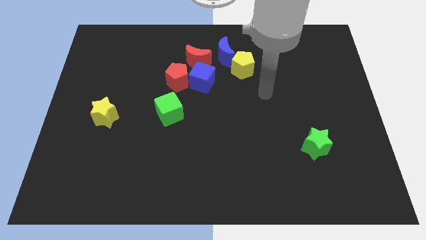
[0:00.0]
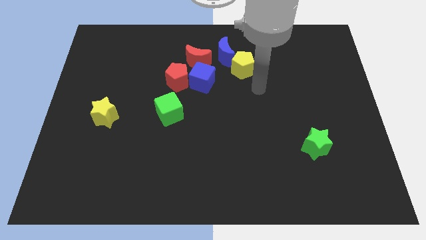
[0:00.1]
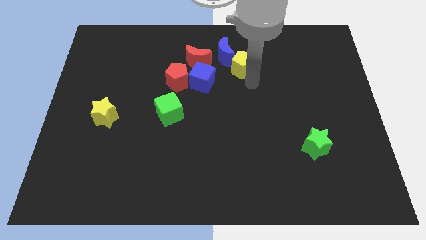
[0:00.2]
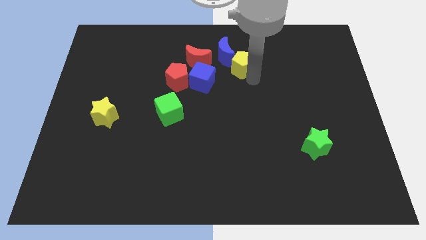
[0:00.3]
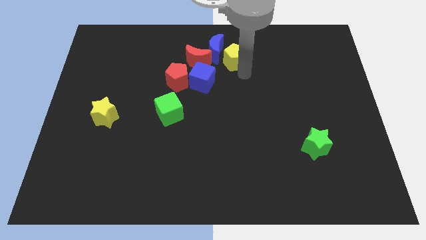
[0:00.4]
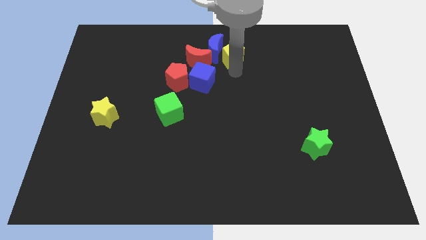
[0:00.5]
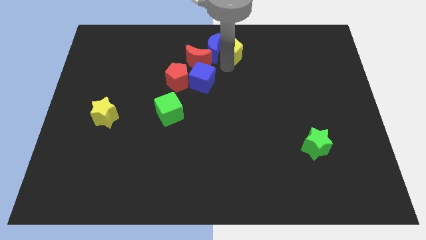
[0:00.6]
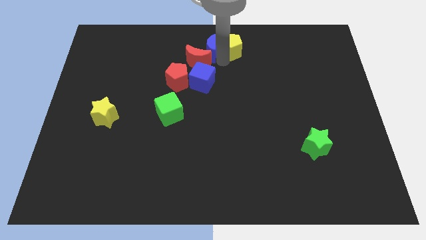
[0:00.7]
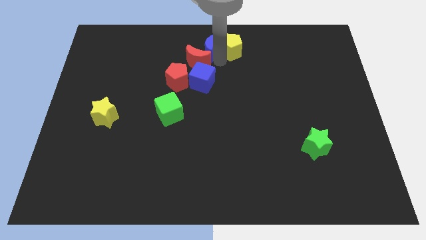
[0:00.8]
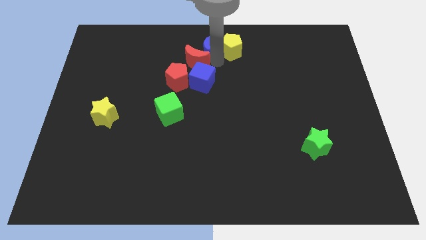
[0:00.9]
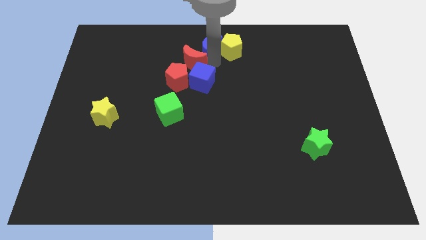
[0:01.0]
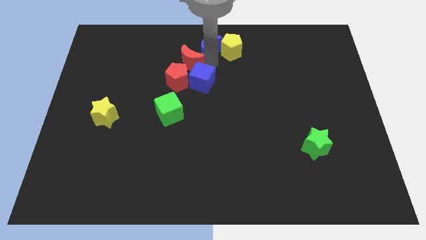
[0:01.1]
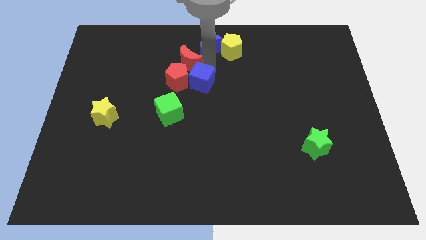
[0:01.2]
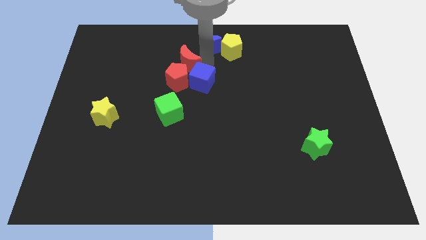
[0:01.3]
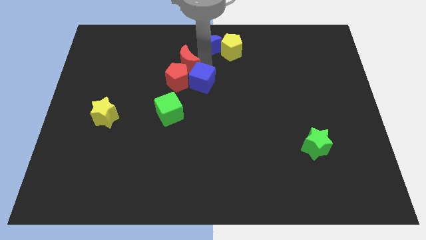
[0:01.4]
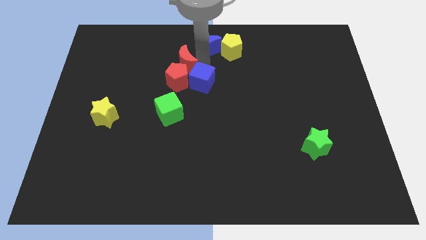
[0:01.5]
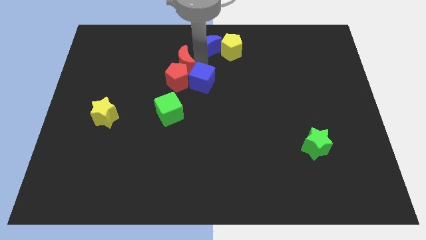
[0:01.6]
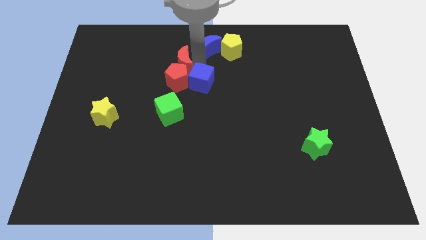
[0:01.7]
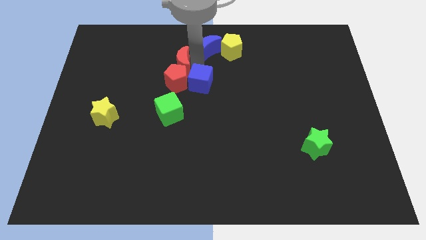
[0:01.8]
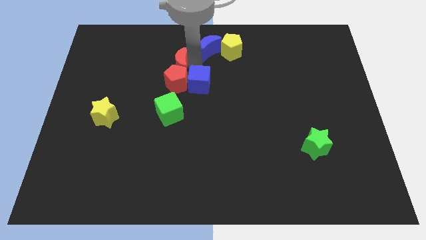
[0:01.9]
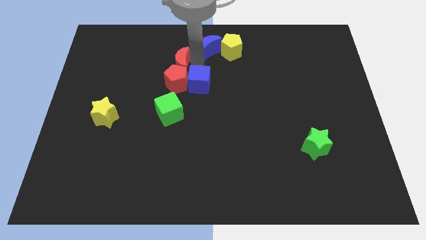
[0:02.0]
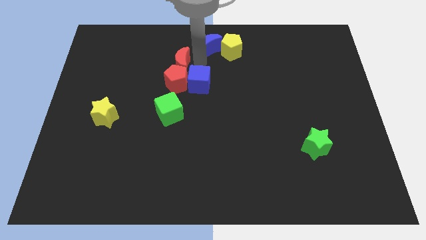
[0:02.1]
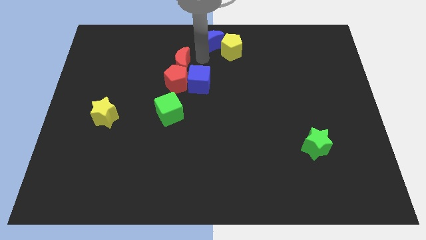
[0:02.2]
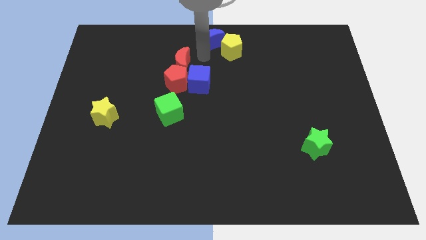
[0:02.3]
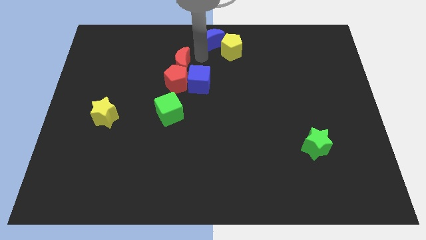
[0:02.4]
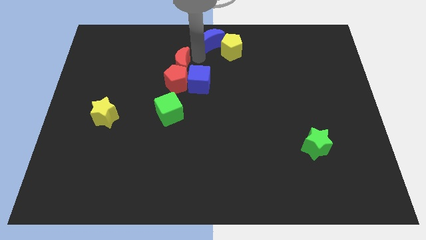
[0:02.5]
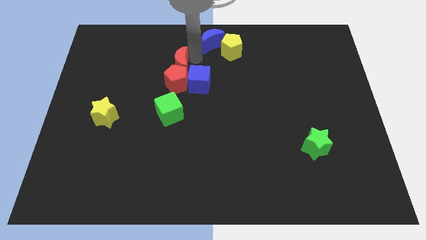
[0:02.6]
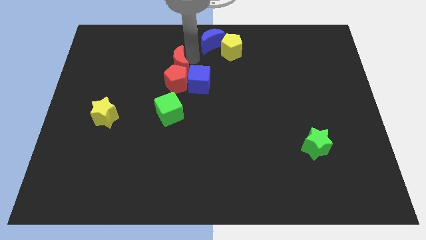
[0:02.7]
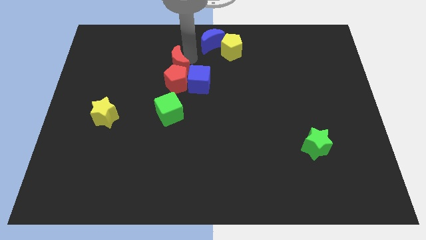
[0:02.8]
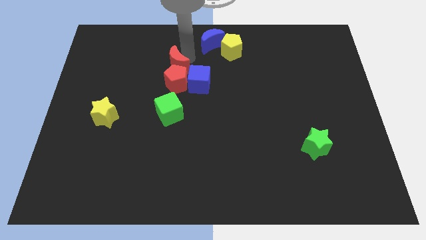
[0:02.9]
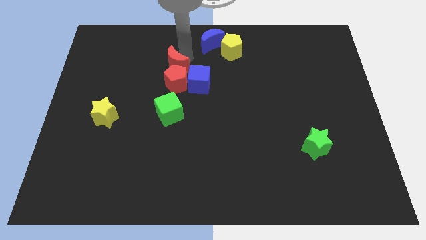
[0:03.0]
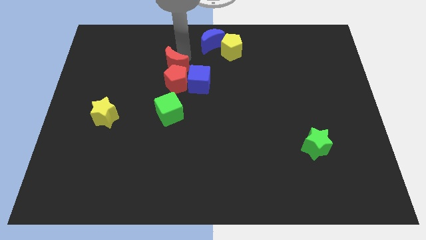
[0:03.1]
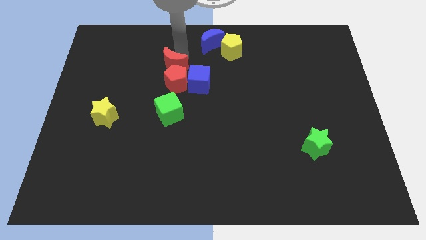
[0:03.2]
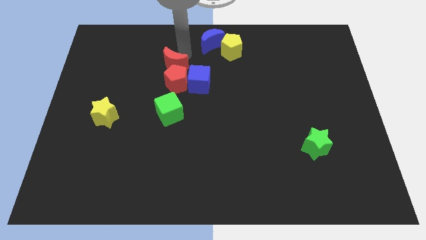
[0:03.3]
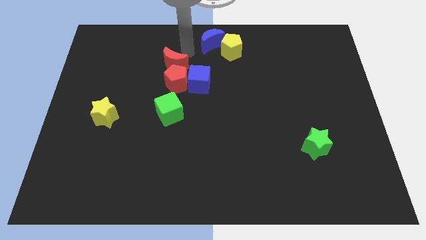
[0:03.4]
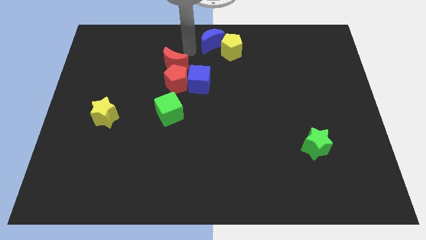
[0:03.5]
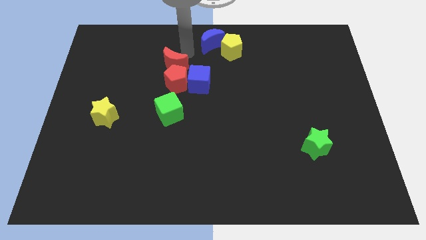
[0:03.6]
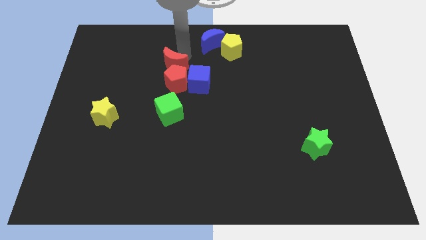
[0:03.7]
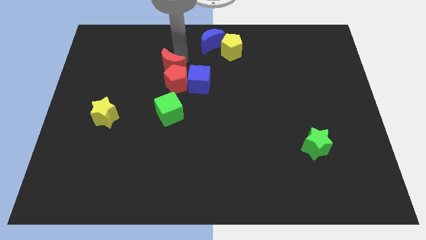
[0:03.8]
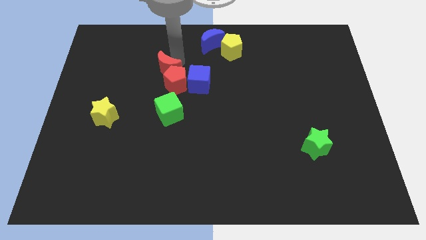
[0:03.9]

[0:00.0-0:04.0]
slide the red moon downwards and to the left somewhat

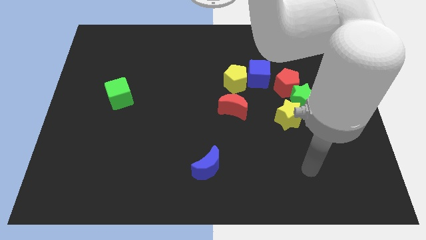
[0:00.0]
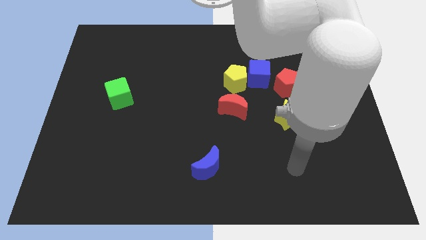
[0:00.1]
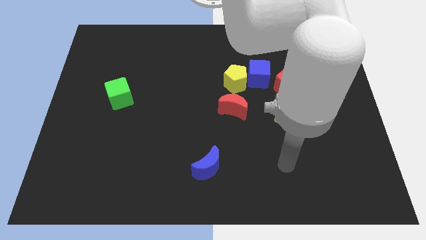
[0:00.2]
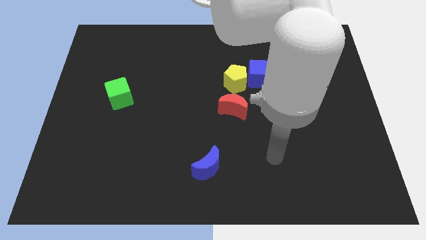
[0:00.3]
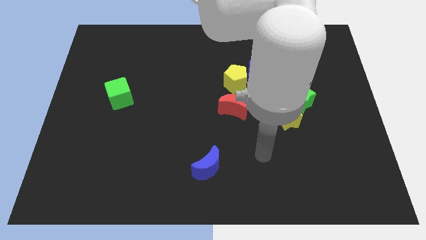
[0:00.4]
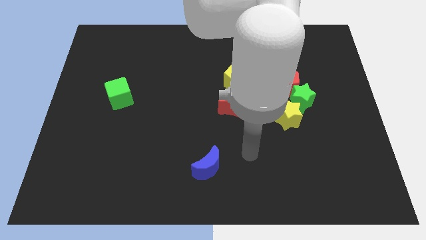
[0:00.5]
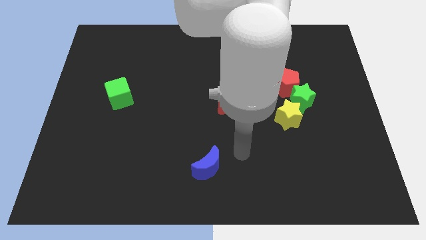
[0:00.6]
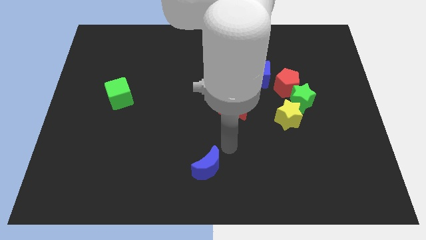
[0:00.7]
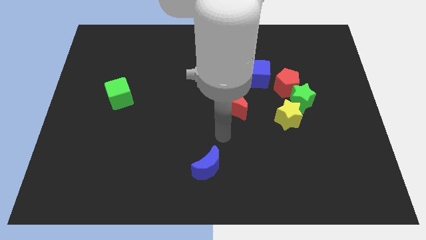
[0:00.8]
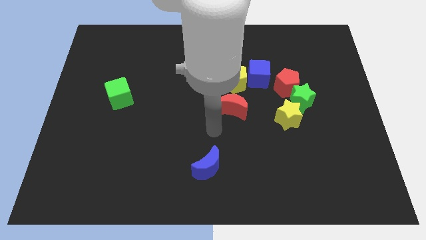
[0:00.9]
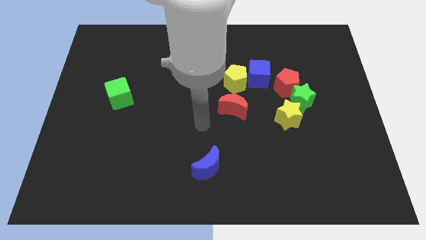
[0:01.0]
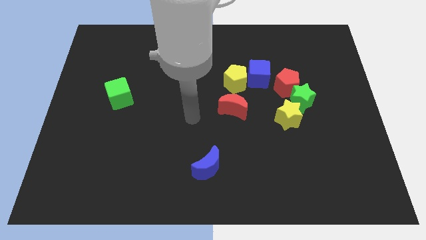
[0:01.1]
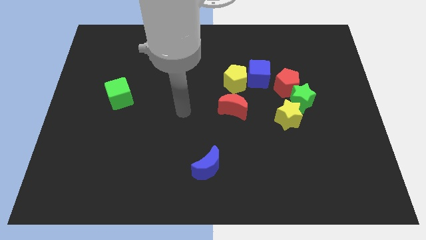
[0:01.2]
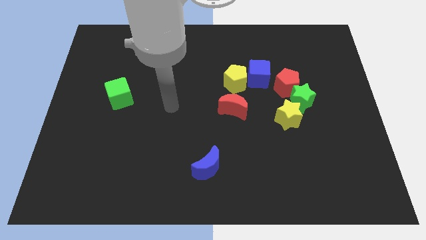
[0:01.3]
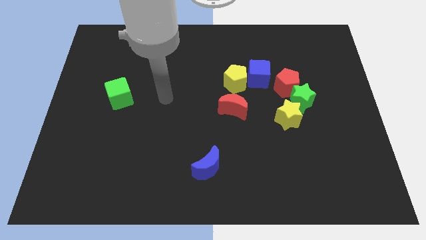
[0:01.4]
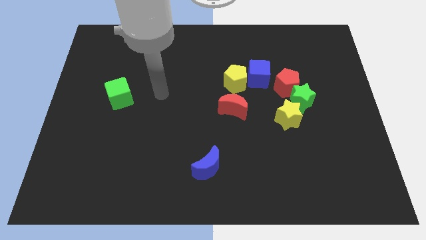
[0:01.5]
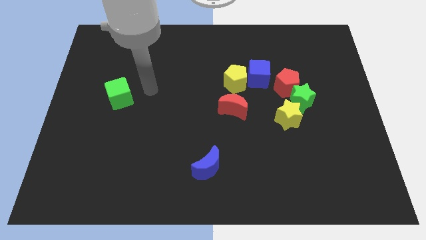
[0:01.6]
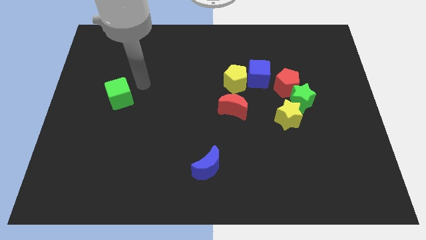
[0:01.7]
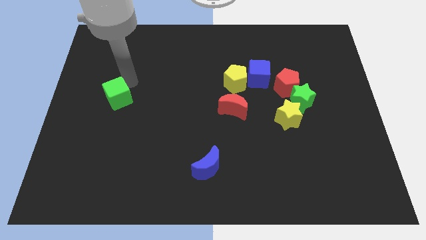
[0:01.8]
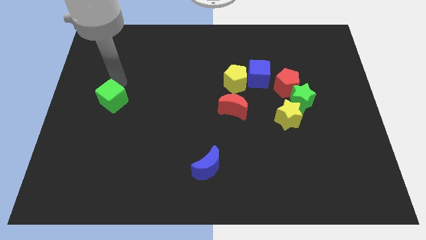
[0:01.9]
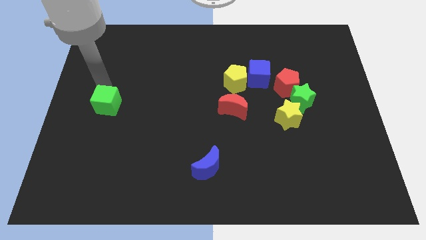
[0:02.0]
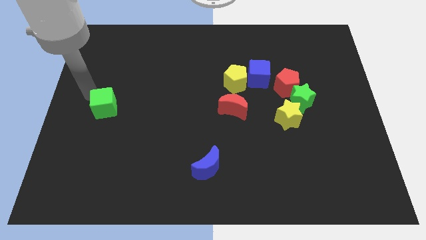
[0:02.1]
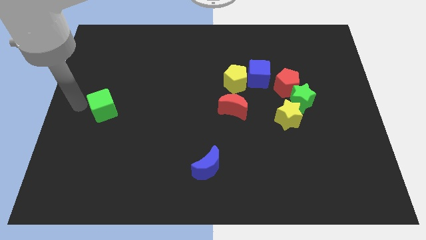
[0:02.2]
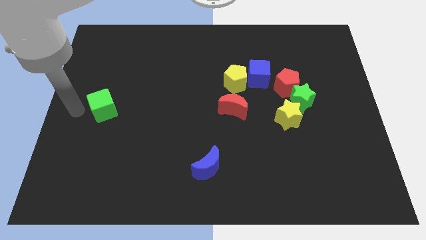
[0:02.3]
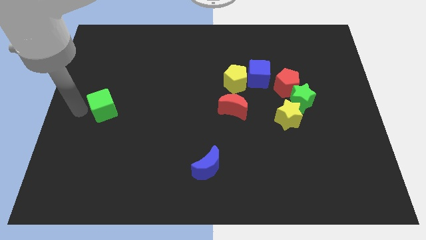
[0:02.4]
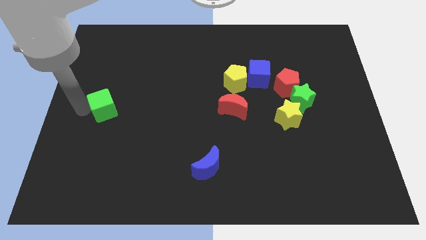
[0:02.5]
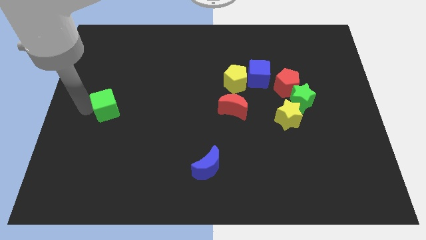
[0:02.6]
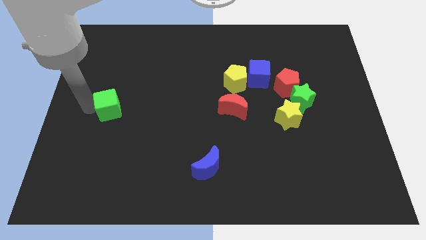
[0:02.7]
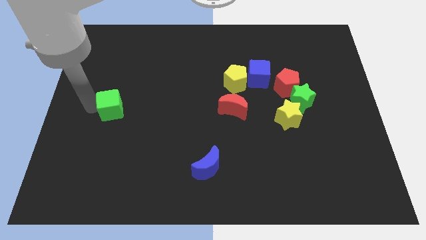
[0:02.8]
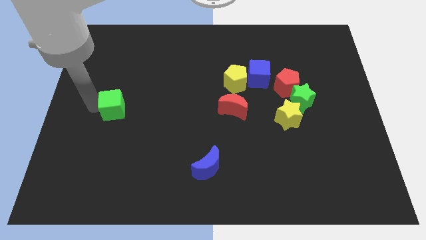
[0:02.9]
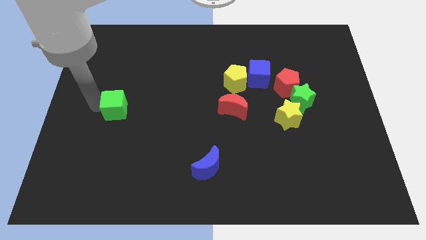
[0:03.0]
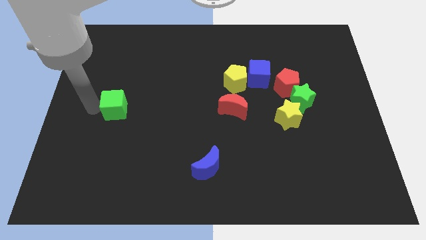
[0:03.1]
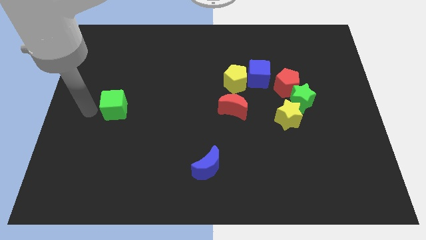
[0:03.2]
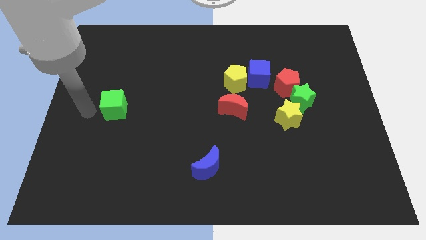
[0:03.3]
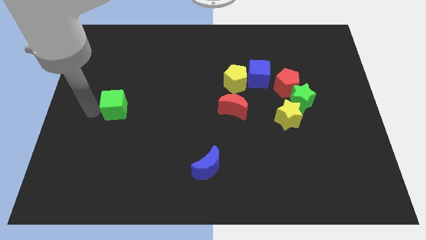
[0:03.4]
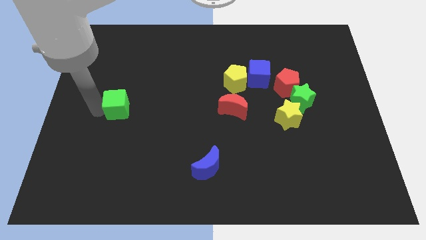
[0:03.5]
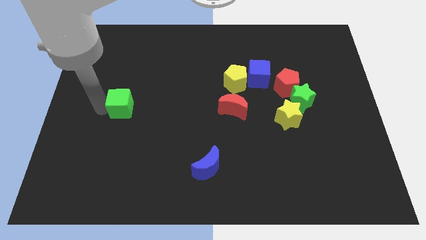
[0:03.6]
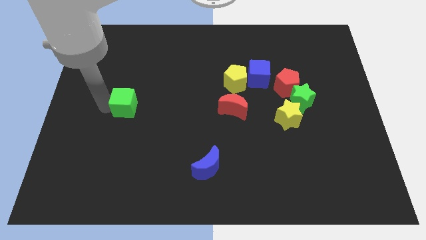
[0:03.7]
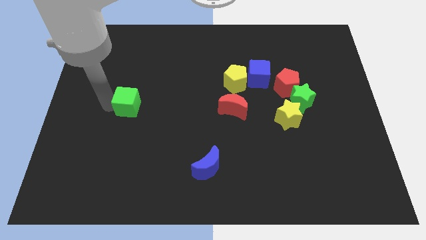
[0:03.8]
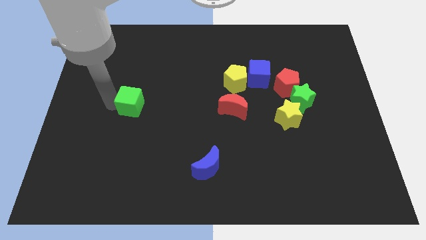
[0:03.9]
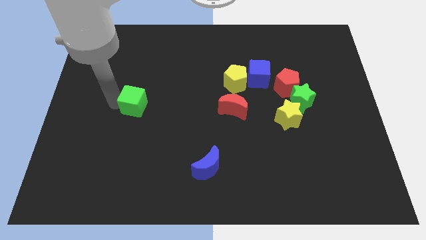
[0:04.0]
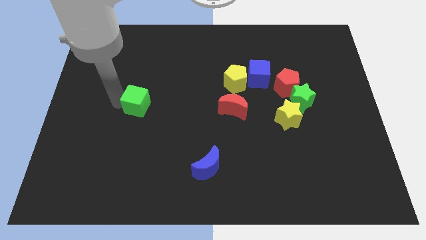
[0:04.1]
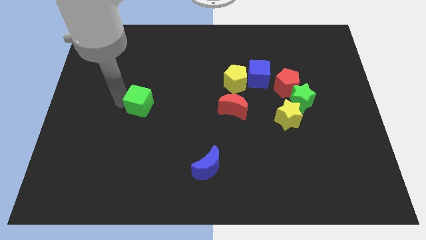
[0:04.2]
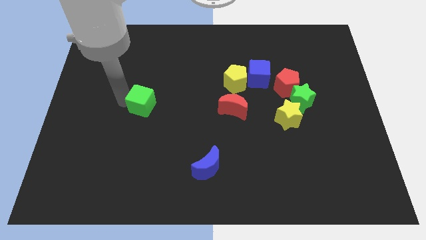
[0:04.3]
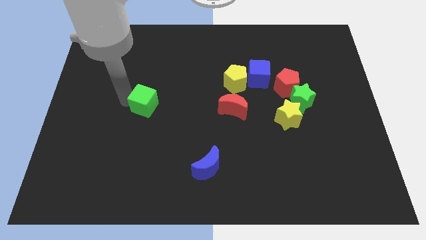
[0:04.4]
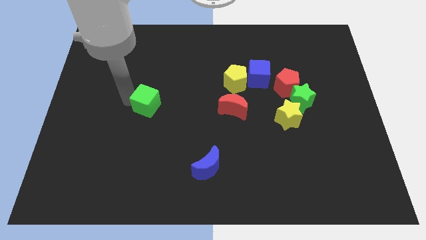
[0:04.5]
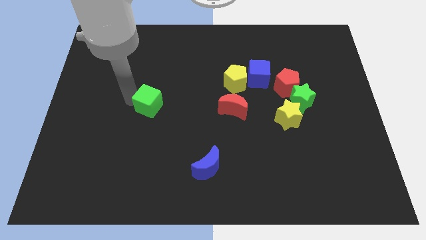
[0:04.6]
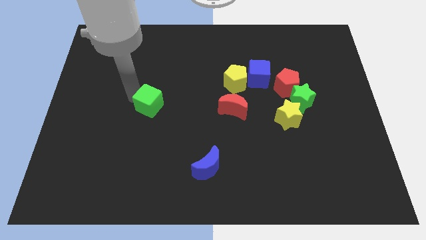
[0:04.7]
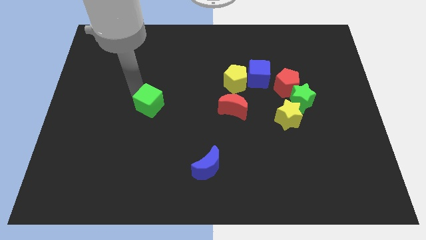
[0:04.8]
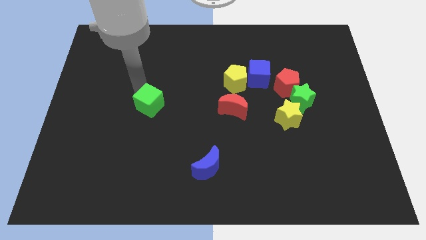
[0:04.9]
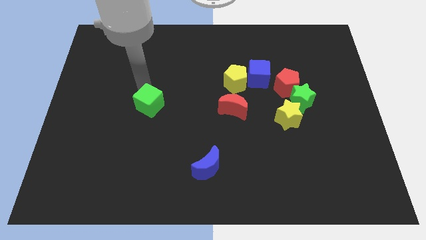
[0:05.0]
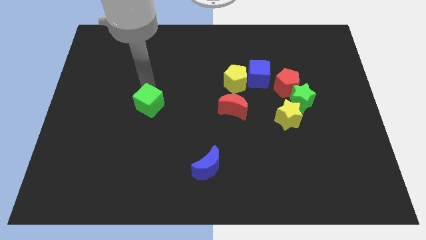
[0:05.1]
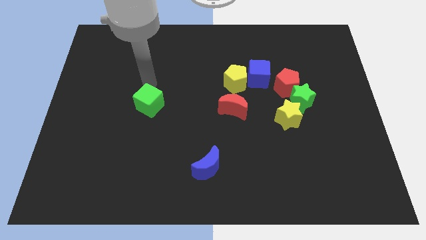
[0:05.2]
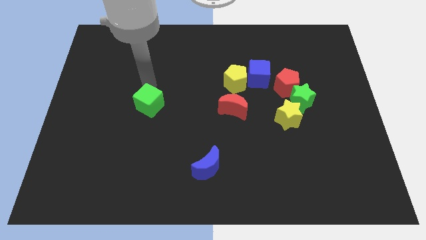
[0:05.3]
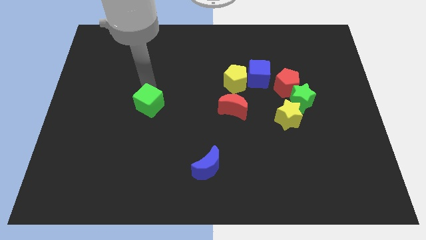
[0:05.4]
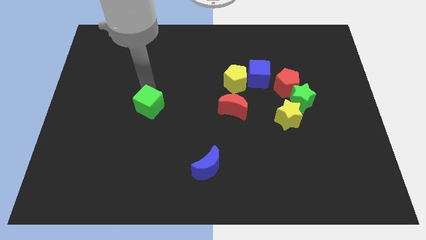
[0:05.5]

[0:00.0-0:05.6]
push the green cube down and right diagonally somewhat
